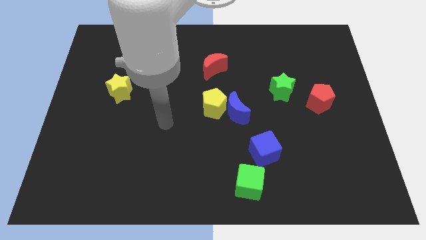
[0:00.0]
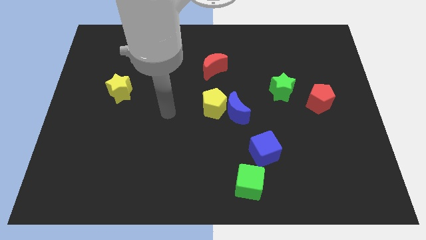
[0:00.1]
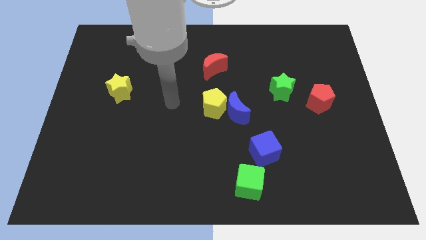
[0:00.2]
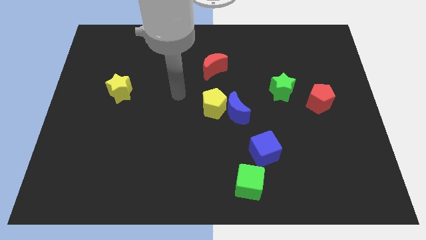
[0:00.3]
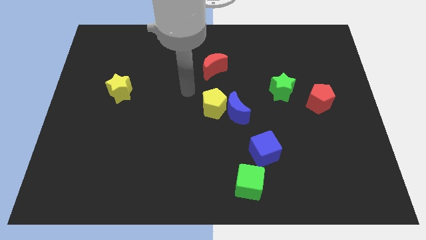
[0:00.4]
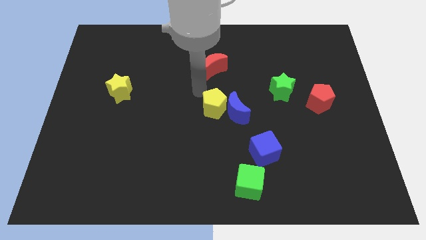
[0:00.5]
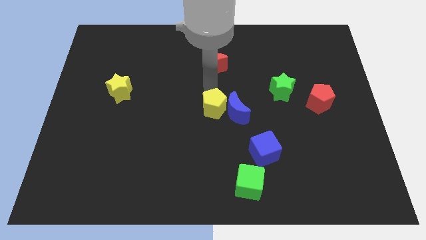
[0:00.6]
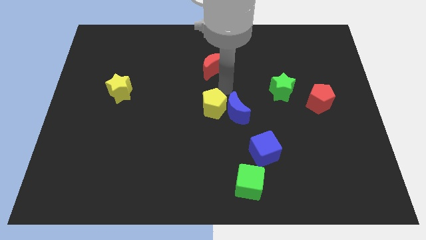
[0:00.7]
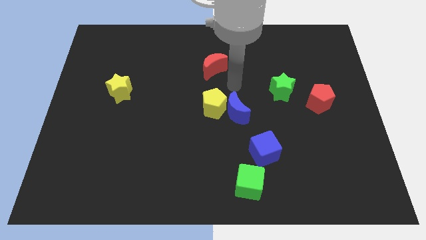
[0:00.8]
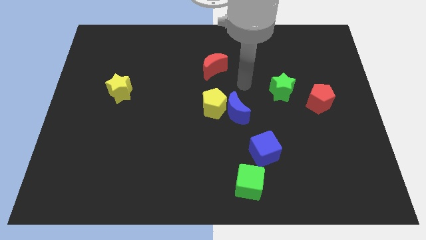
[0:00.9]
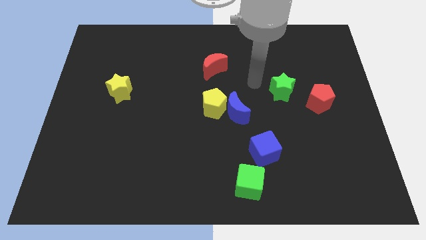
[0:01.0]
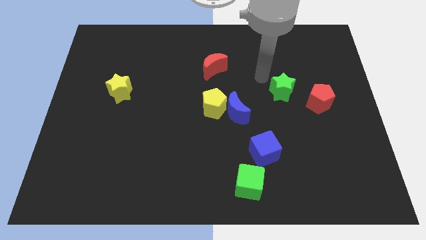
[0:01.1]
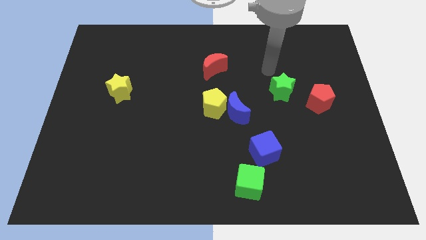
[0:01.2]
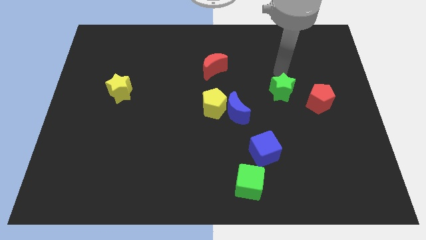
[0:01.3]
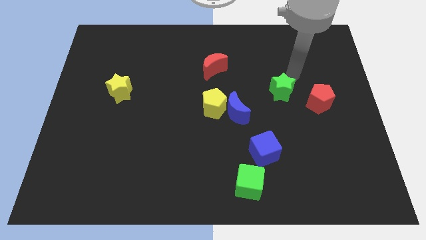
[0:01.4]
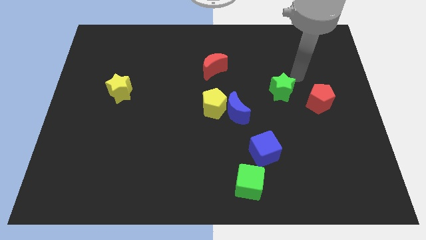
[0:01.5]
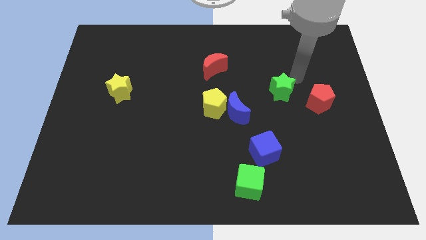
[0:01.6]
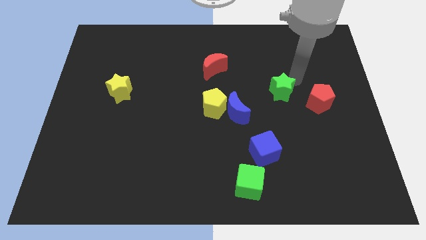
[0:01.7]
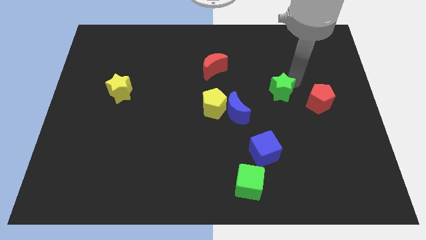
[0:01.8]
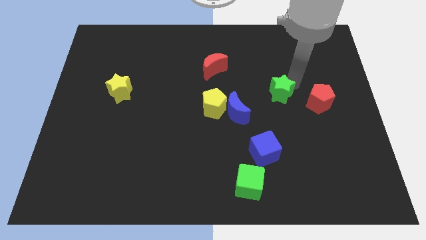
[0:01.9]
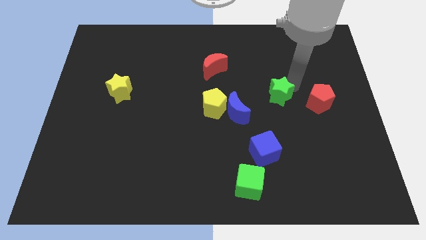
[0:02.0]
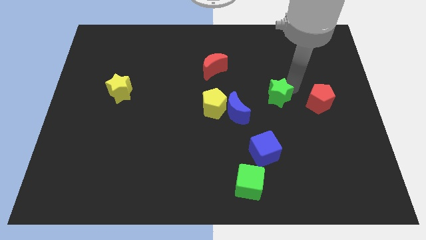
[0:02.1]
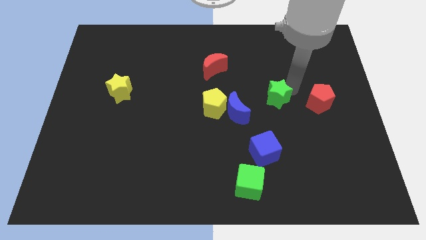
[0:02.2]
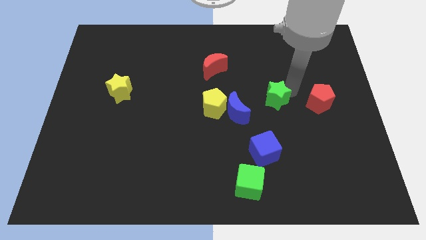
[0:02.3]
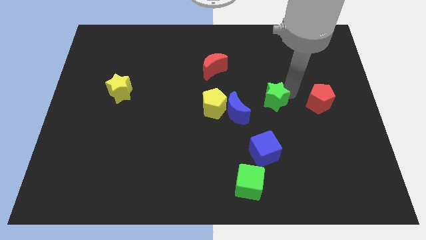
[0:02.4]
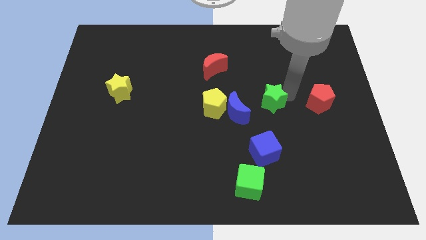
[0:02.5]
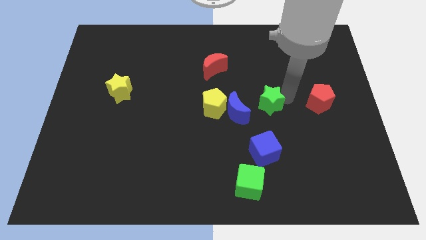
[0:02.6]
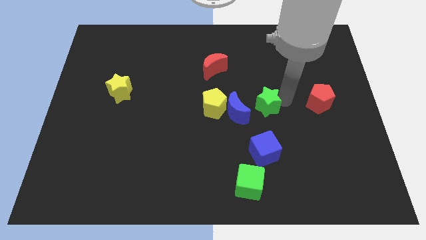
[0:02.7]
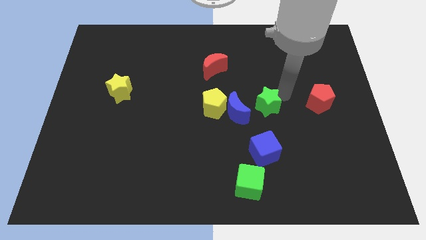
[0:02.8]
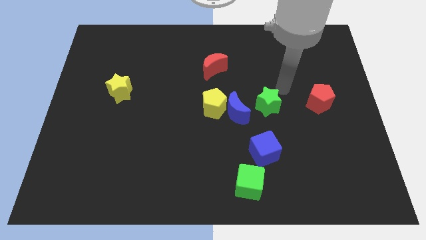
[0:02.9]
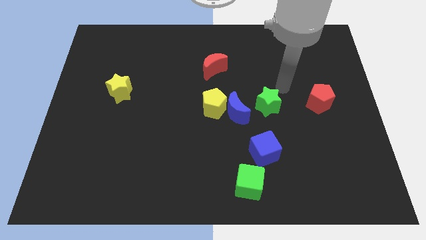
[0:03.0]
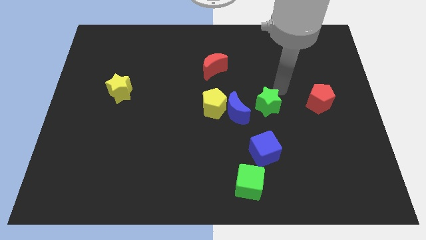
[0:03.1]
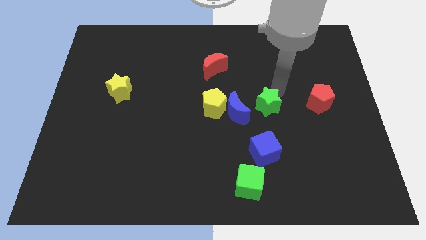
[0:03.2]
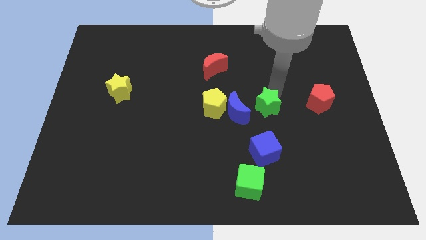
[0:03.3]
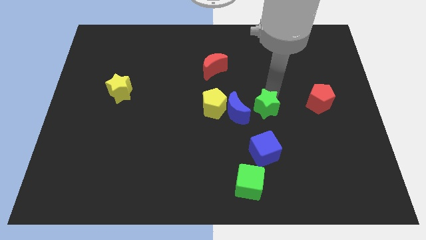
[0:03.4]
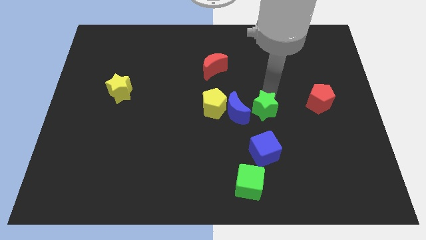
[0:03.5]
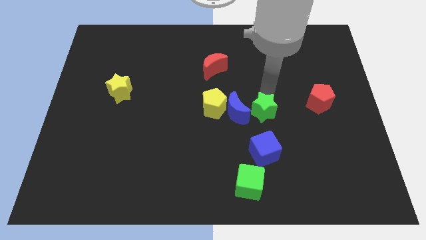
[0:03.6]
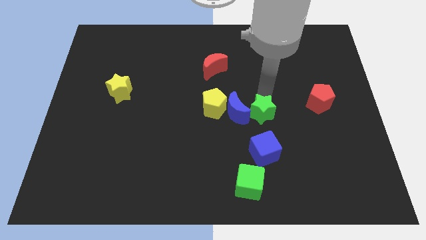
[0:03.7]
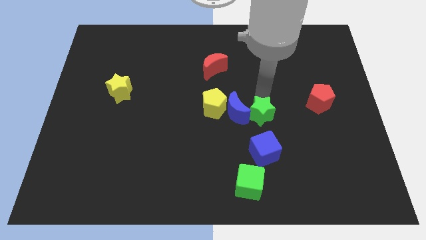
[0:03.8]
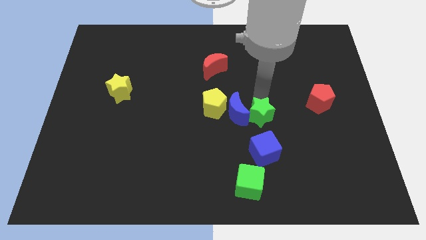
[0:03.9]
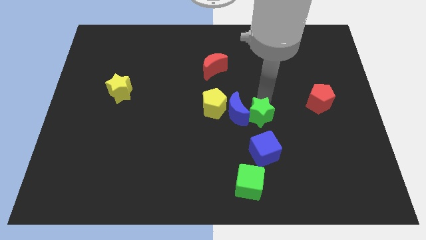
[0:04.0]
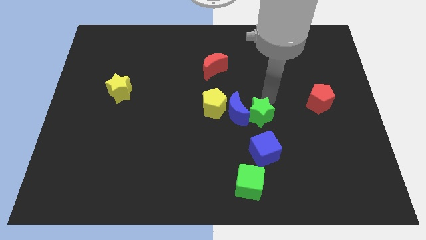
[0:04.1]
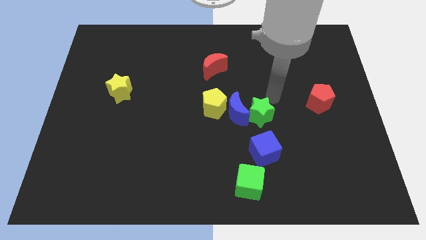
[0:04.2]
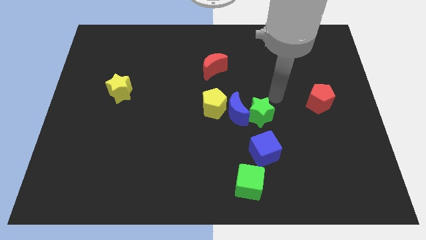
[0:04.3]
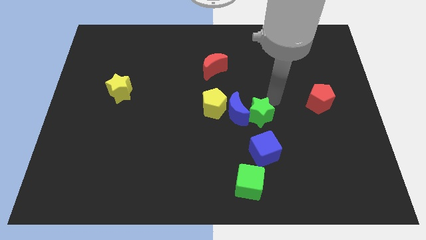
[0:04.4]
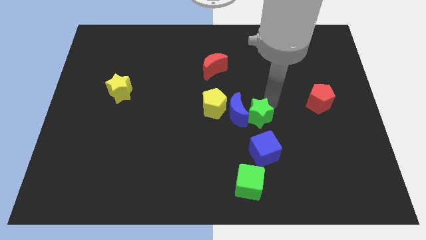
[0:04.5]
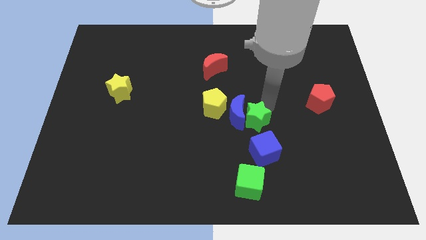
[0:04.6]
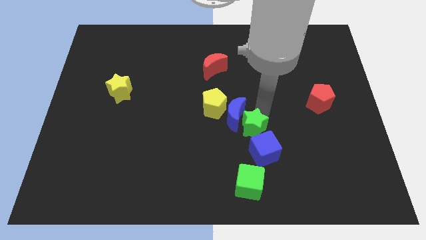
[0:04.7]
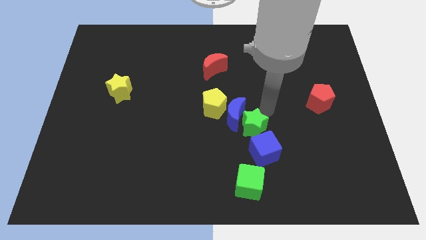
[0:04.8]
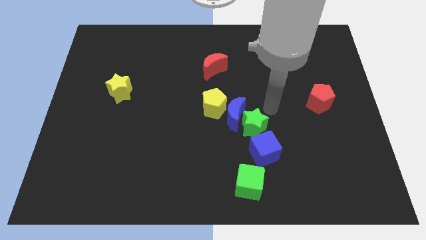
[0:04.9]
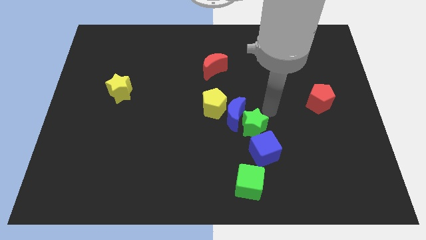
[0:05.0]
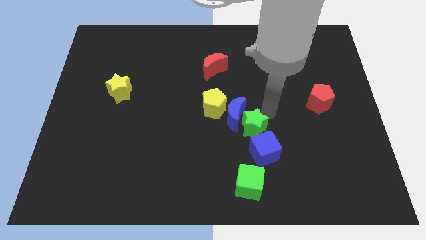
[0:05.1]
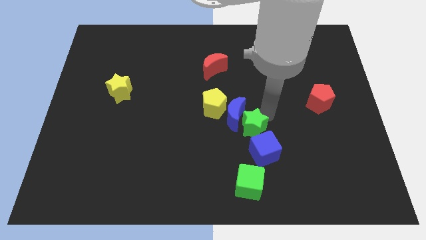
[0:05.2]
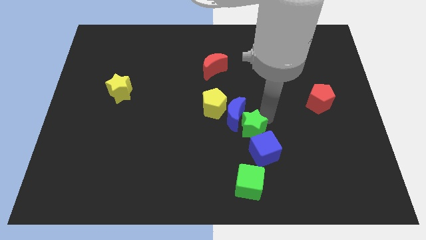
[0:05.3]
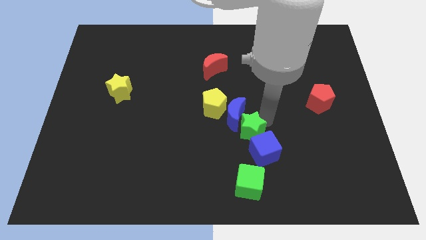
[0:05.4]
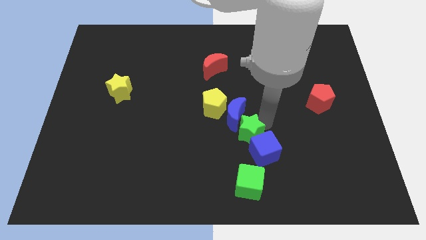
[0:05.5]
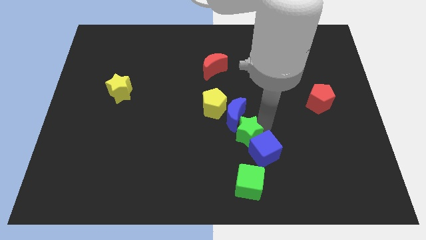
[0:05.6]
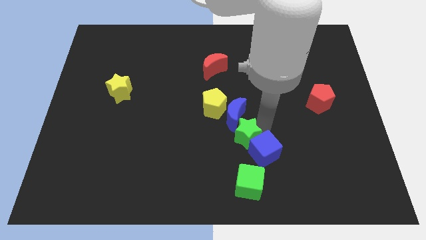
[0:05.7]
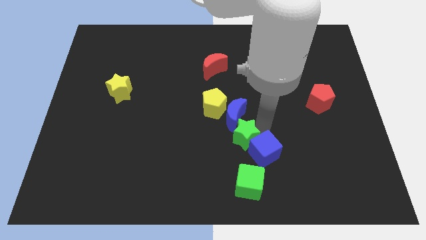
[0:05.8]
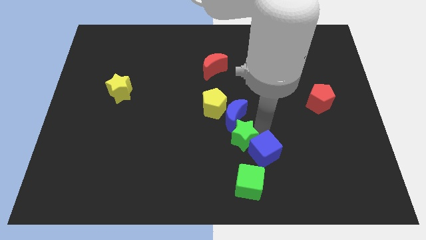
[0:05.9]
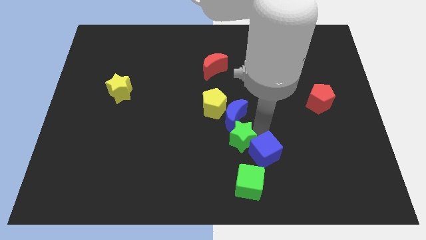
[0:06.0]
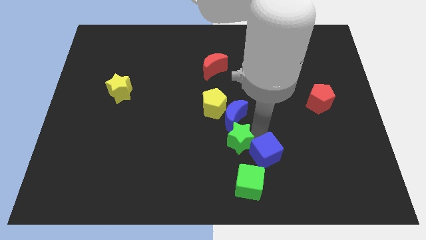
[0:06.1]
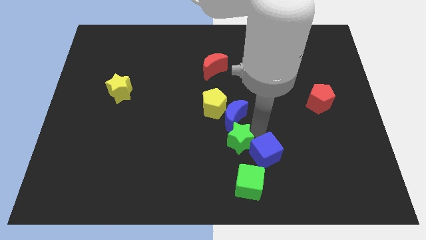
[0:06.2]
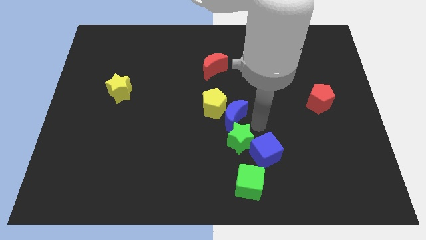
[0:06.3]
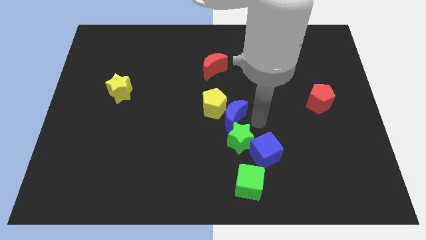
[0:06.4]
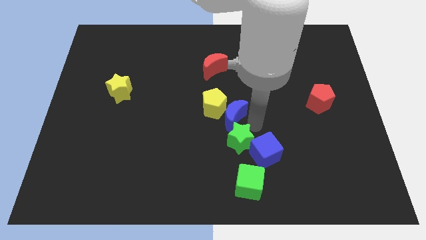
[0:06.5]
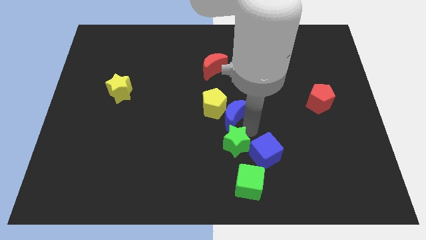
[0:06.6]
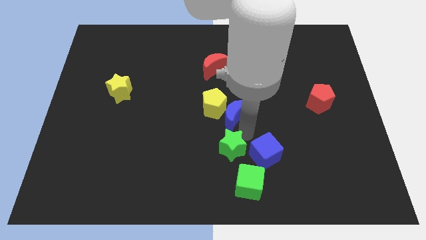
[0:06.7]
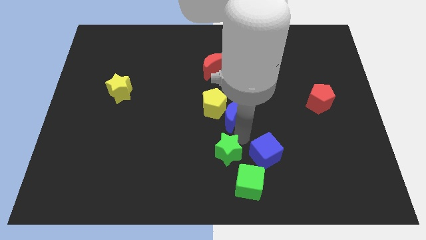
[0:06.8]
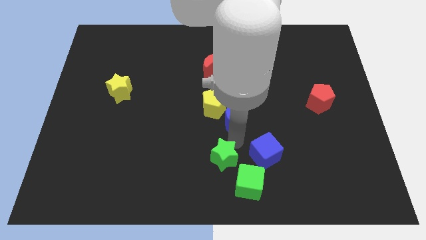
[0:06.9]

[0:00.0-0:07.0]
push the green star to the bottom side
